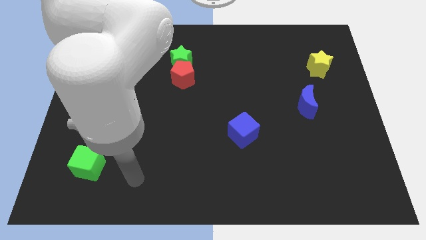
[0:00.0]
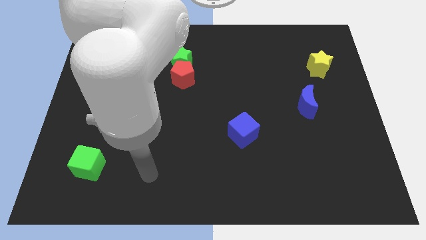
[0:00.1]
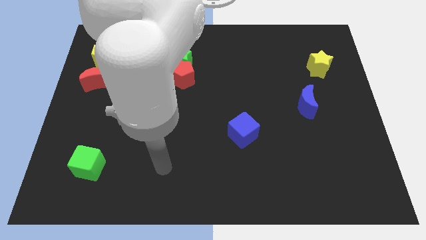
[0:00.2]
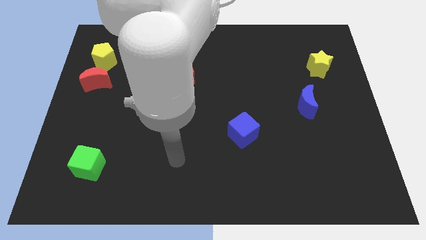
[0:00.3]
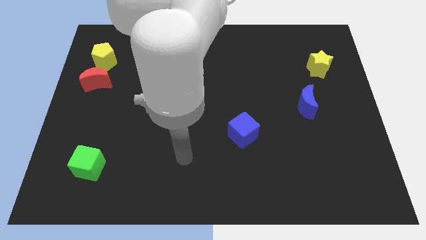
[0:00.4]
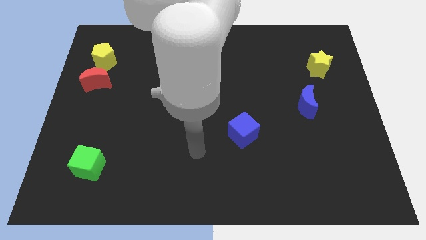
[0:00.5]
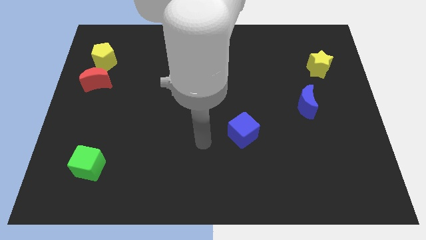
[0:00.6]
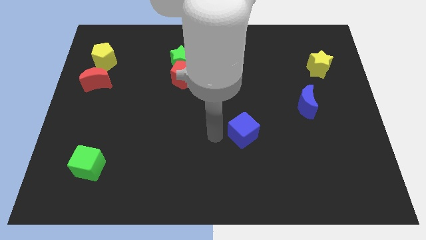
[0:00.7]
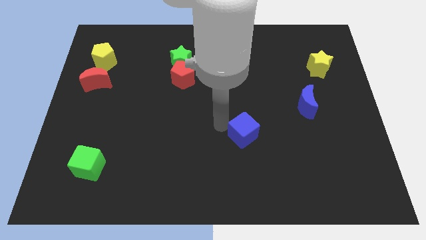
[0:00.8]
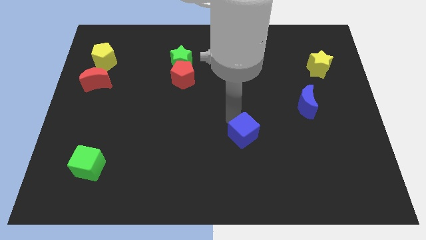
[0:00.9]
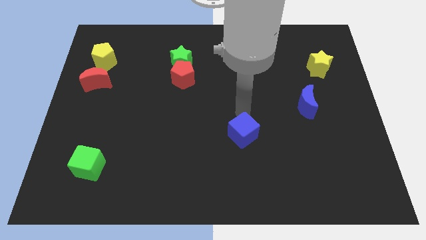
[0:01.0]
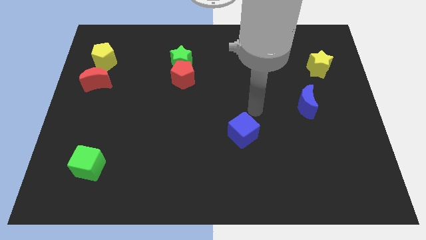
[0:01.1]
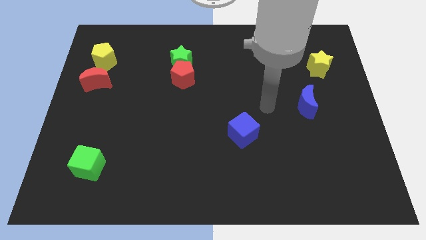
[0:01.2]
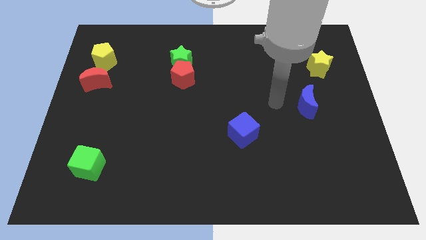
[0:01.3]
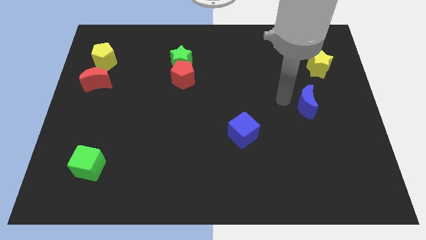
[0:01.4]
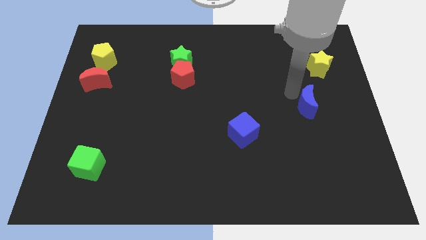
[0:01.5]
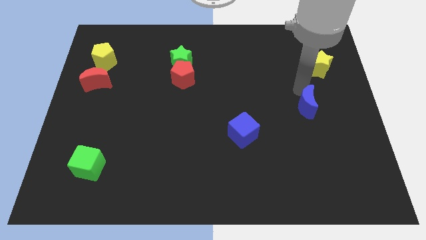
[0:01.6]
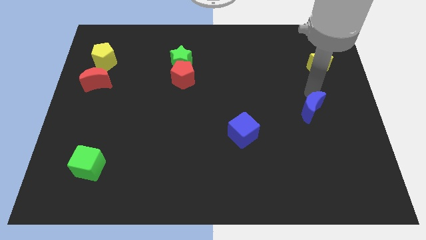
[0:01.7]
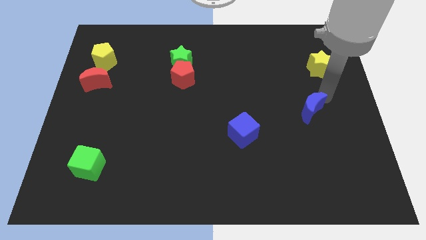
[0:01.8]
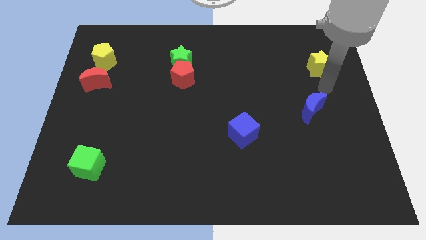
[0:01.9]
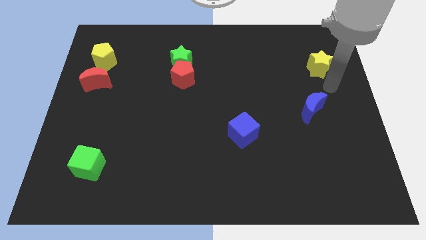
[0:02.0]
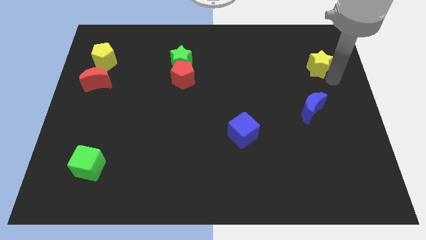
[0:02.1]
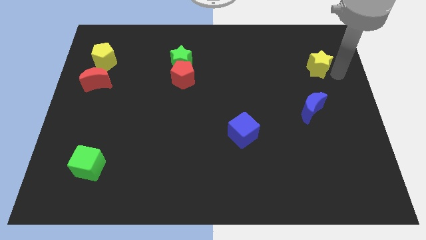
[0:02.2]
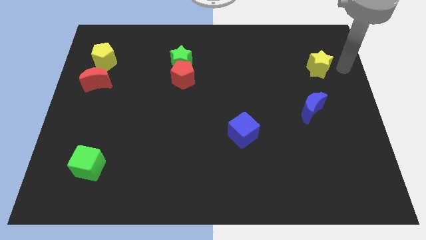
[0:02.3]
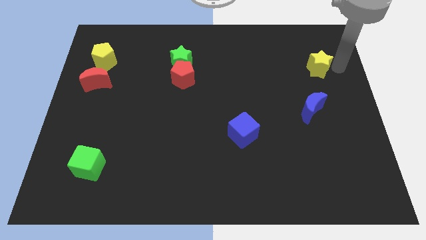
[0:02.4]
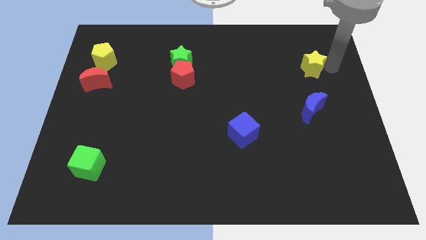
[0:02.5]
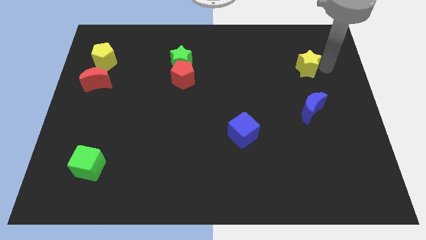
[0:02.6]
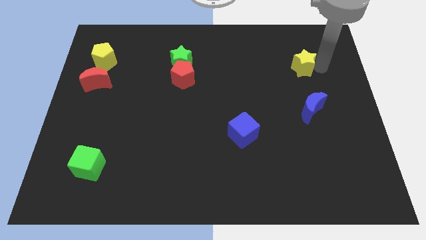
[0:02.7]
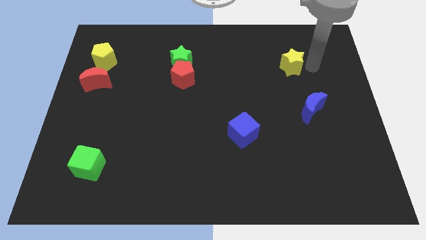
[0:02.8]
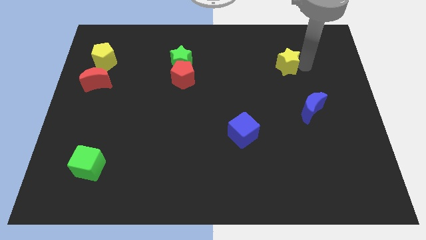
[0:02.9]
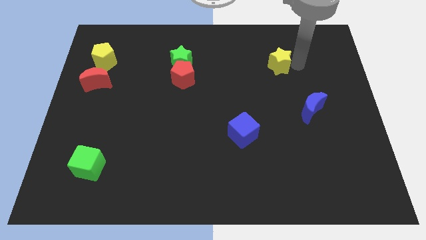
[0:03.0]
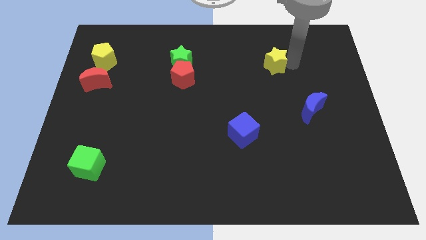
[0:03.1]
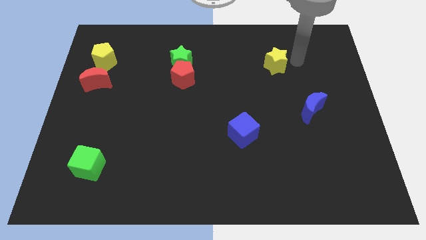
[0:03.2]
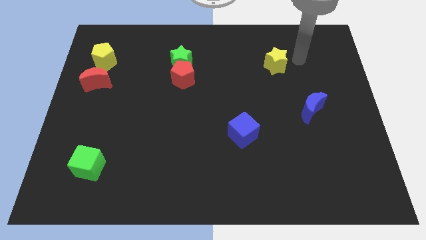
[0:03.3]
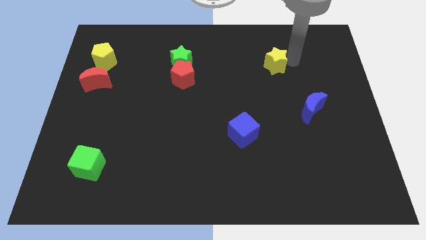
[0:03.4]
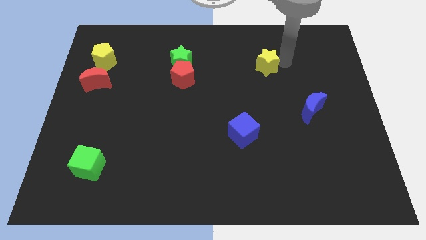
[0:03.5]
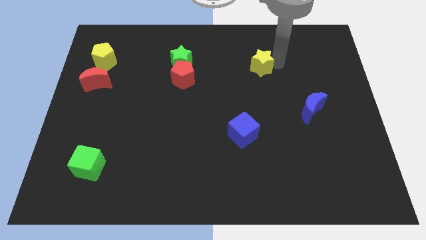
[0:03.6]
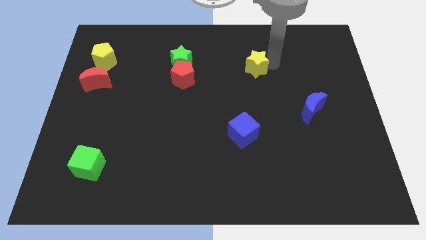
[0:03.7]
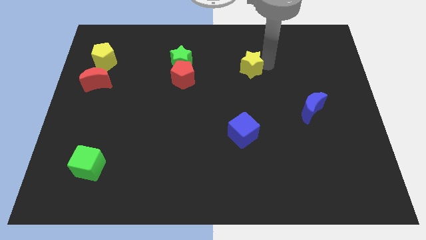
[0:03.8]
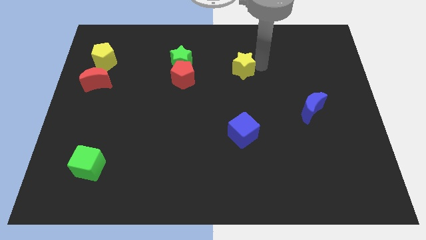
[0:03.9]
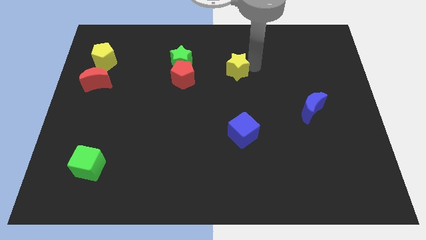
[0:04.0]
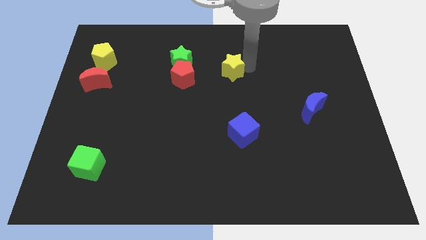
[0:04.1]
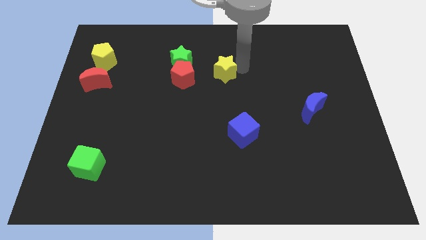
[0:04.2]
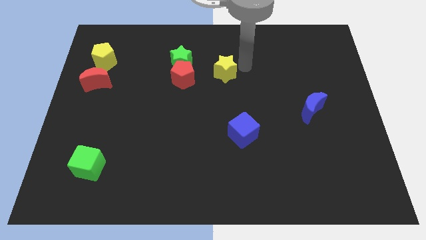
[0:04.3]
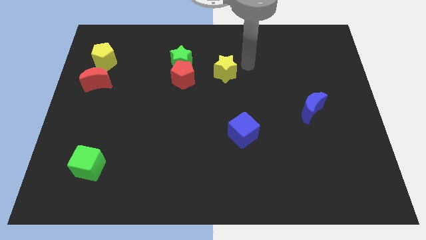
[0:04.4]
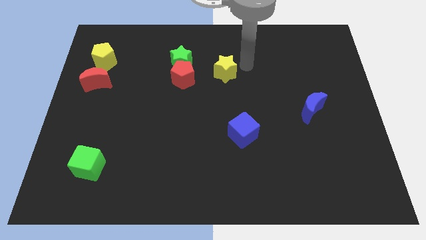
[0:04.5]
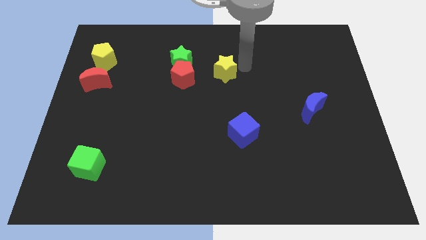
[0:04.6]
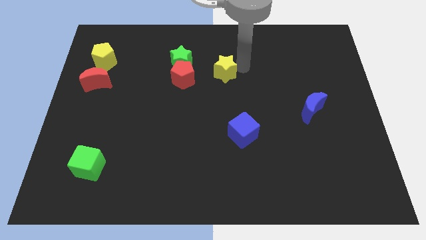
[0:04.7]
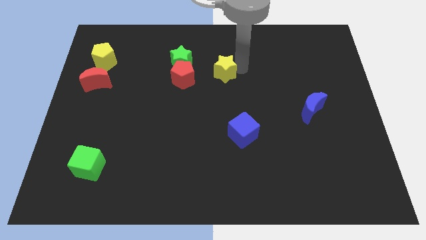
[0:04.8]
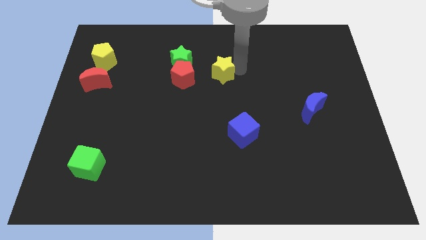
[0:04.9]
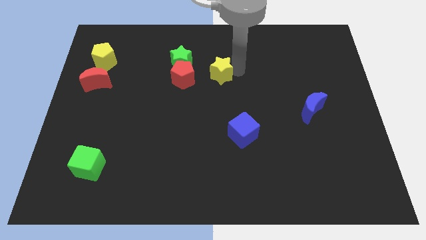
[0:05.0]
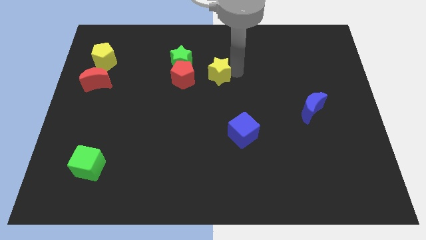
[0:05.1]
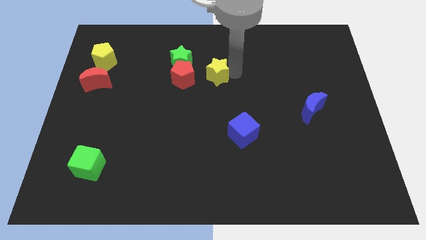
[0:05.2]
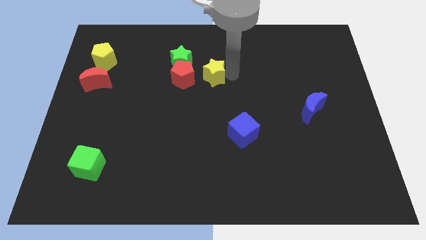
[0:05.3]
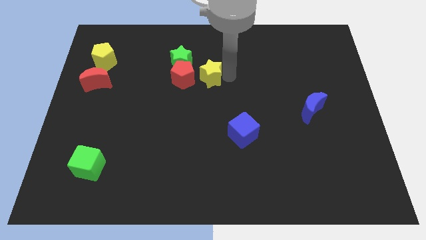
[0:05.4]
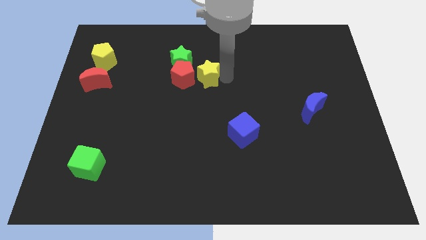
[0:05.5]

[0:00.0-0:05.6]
push the yellow star next to the red pentagon
